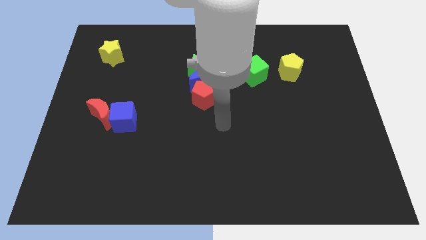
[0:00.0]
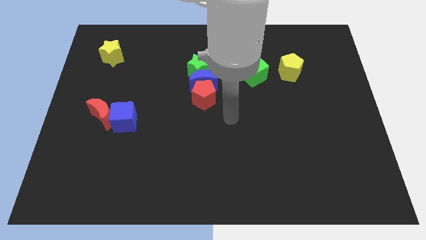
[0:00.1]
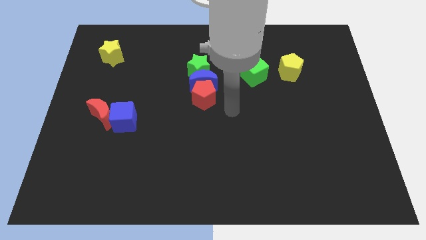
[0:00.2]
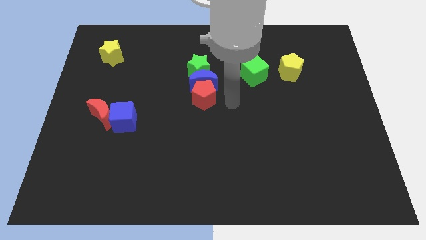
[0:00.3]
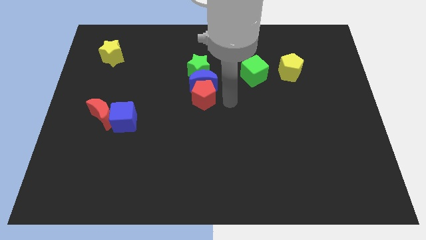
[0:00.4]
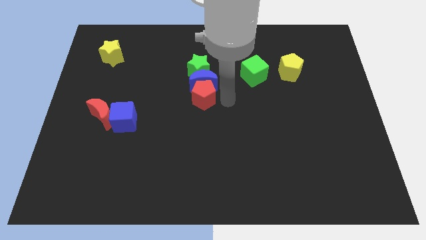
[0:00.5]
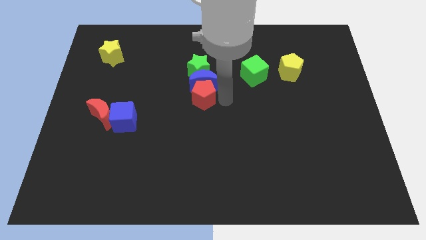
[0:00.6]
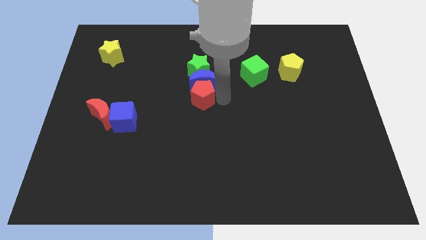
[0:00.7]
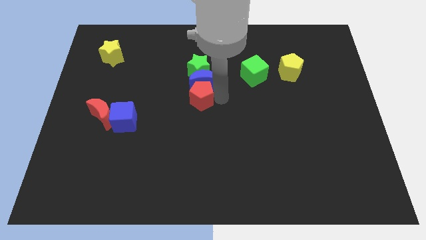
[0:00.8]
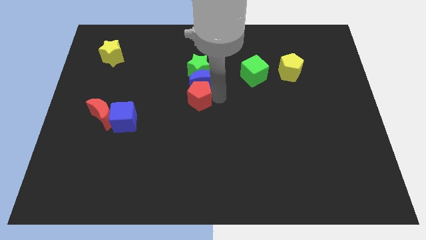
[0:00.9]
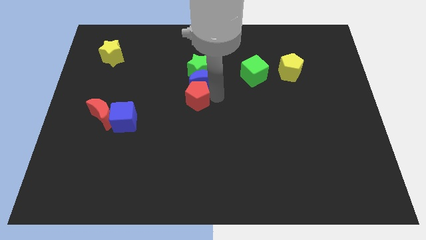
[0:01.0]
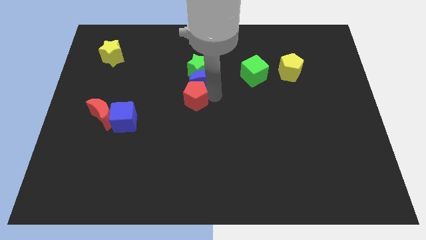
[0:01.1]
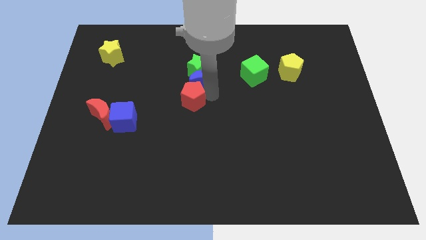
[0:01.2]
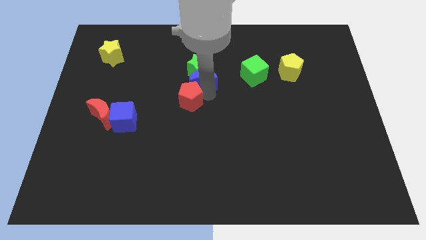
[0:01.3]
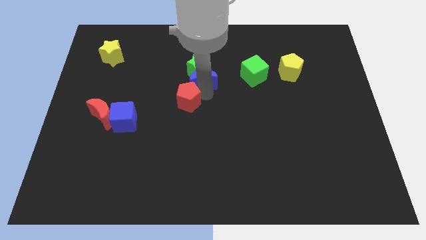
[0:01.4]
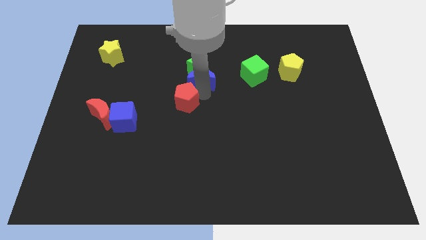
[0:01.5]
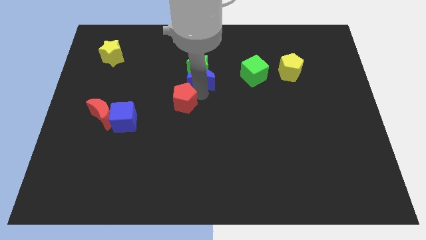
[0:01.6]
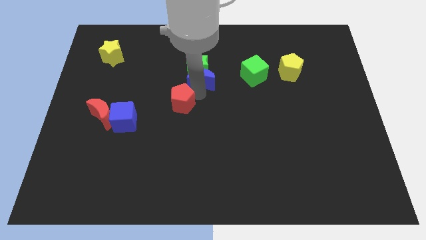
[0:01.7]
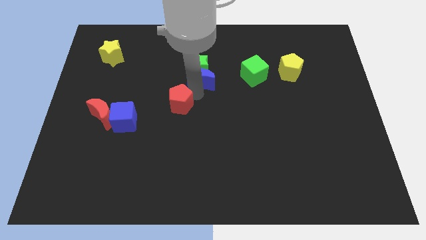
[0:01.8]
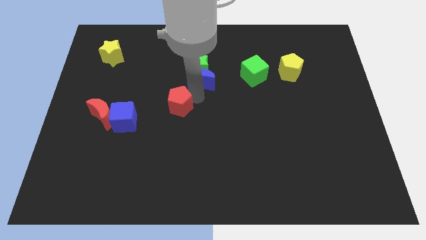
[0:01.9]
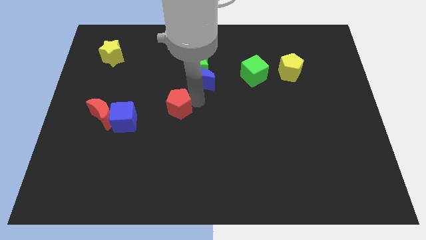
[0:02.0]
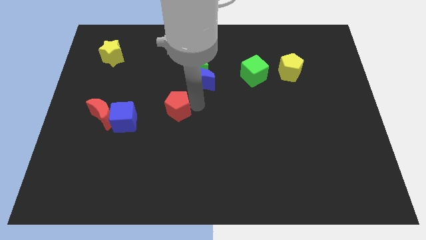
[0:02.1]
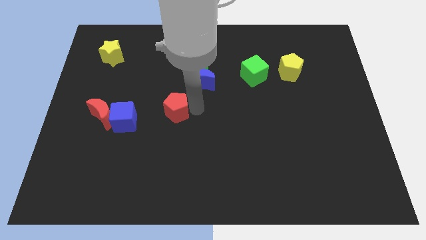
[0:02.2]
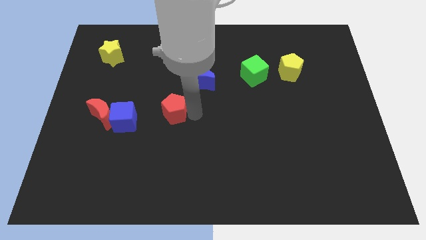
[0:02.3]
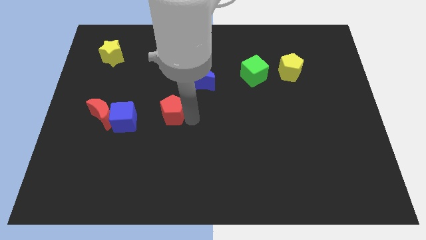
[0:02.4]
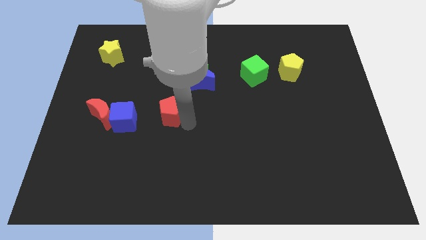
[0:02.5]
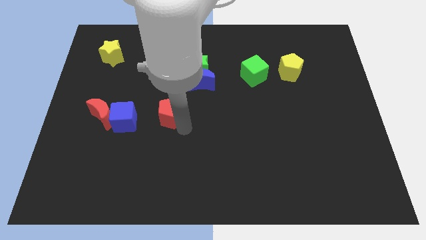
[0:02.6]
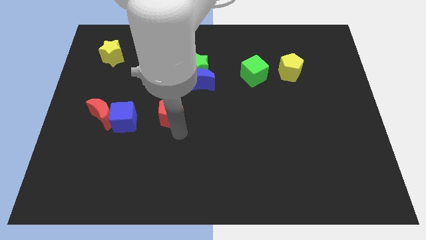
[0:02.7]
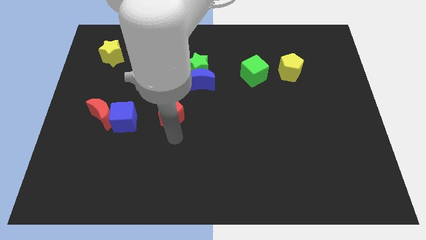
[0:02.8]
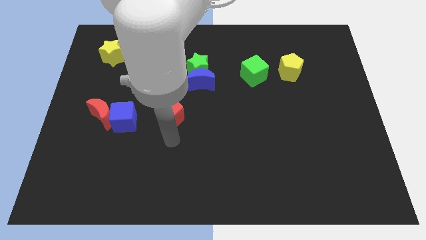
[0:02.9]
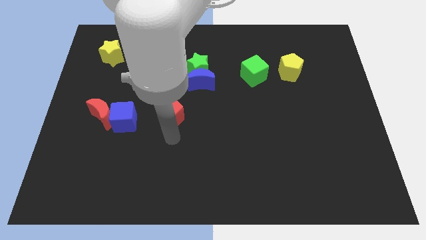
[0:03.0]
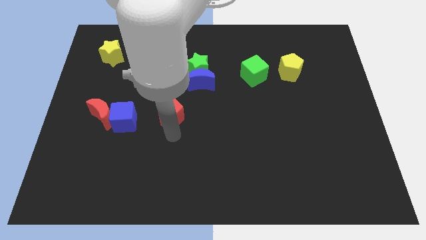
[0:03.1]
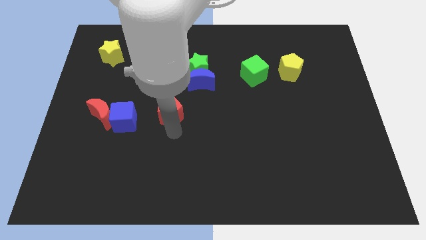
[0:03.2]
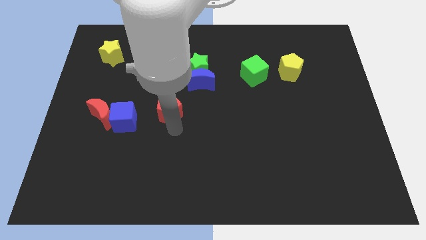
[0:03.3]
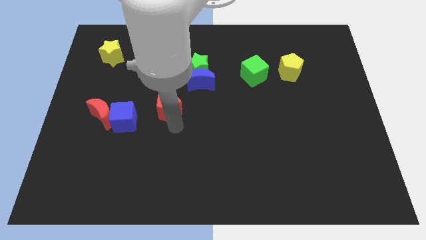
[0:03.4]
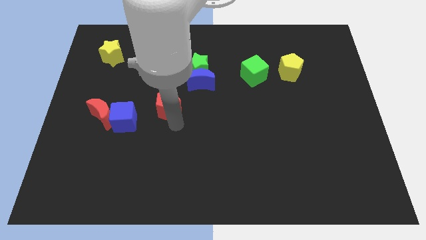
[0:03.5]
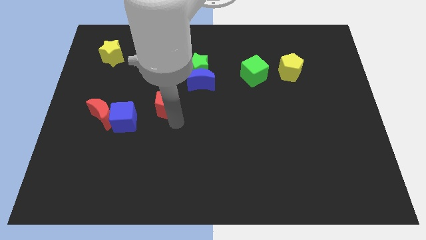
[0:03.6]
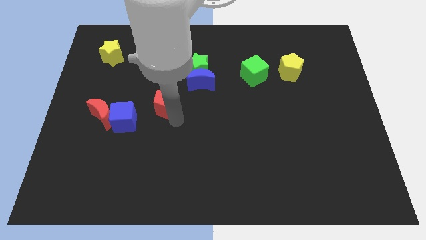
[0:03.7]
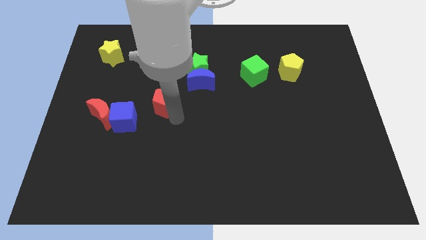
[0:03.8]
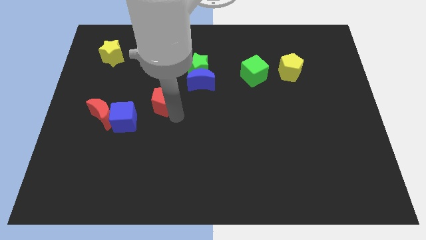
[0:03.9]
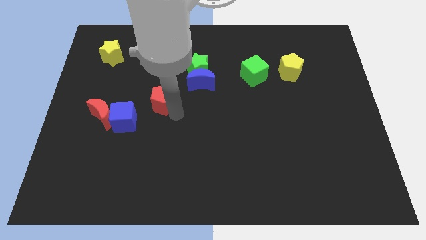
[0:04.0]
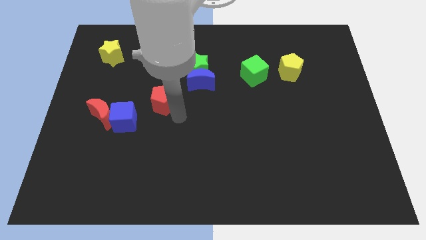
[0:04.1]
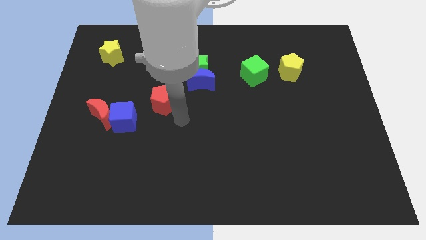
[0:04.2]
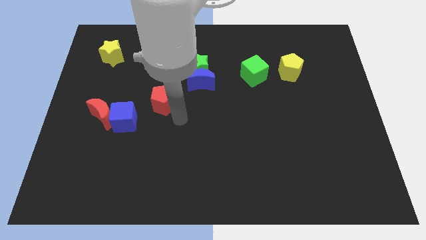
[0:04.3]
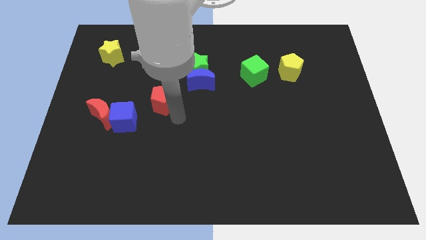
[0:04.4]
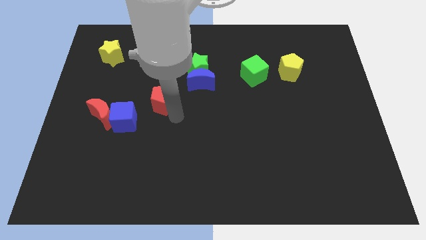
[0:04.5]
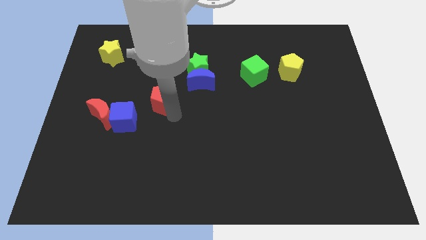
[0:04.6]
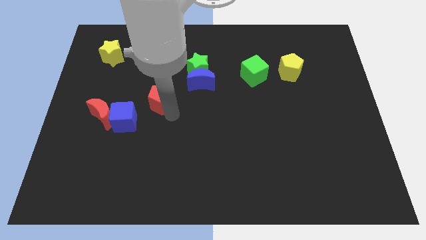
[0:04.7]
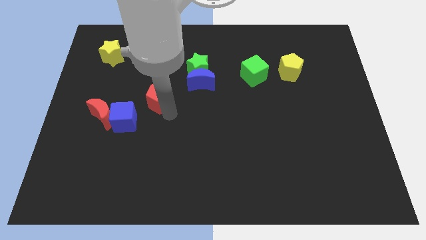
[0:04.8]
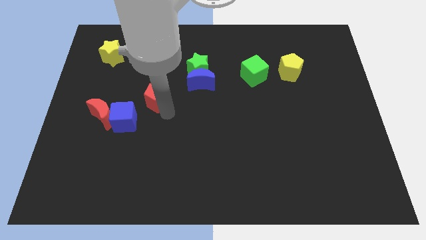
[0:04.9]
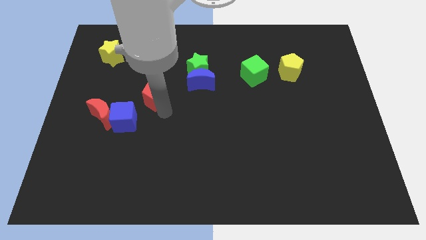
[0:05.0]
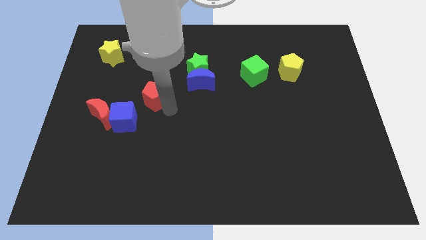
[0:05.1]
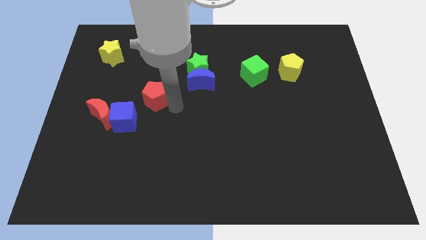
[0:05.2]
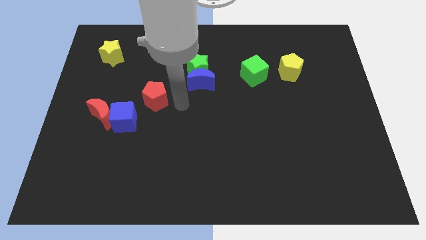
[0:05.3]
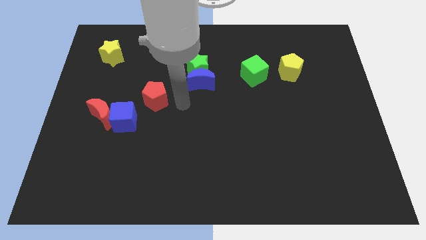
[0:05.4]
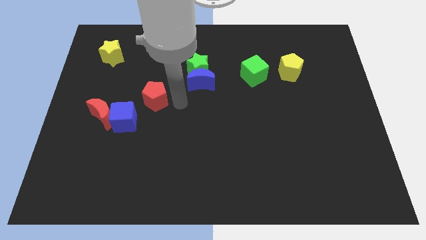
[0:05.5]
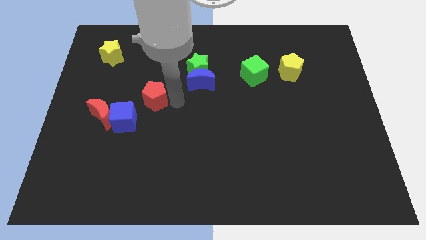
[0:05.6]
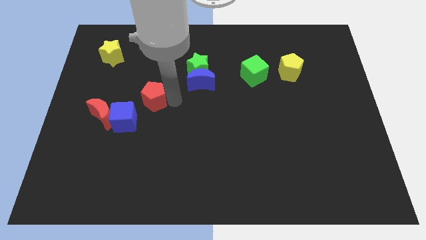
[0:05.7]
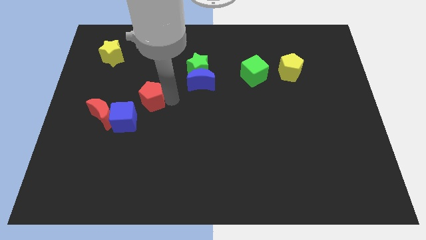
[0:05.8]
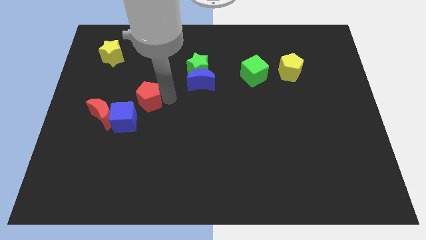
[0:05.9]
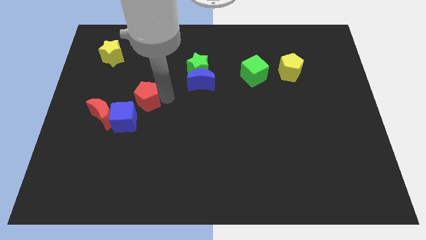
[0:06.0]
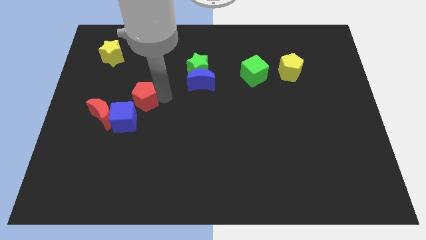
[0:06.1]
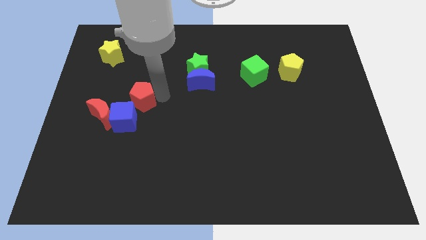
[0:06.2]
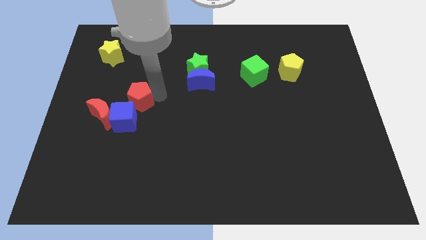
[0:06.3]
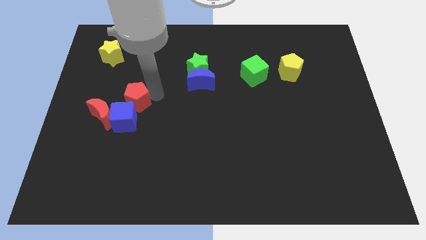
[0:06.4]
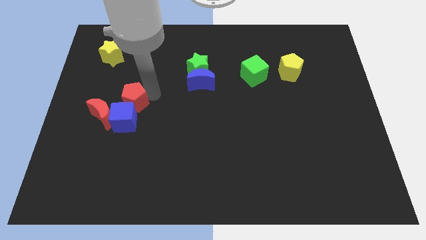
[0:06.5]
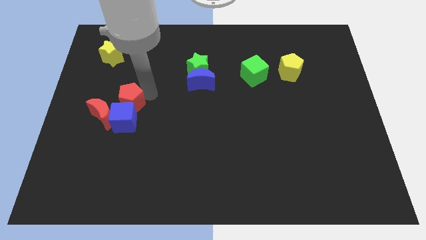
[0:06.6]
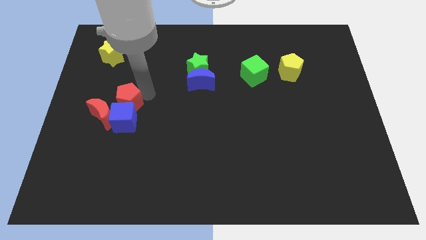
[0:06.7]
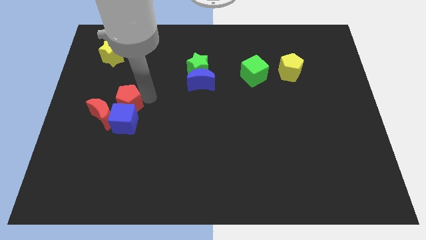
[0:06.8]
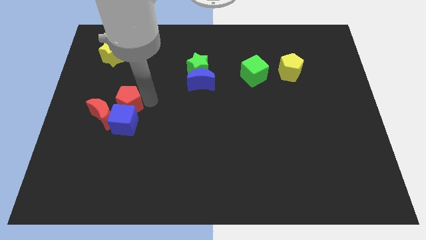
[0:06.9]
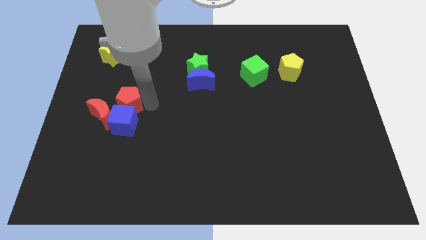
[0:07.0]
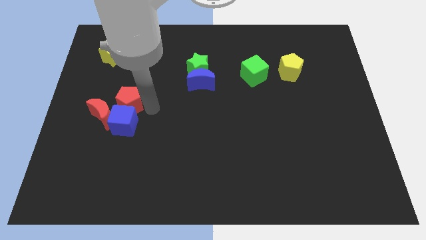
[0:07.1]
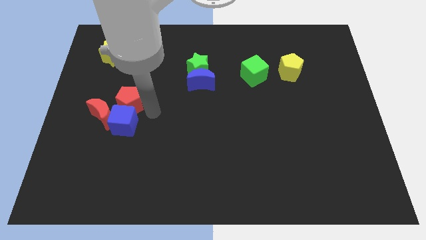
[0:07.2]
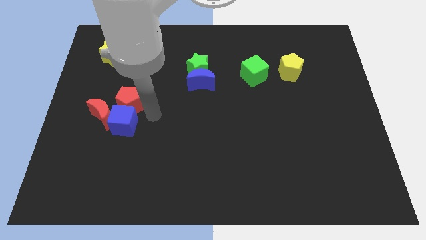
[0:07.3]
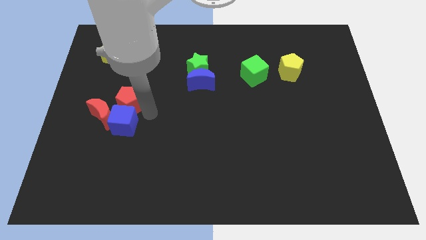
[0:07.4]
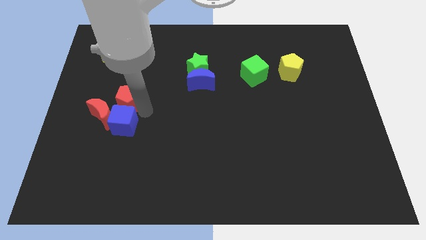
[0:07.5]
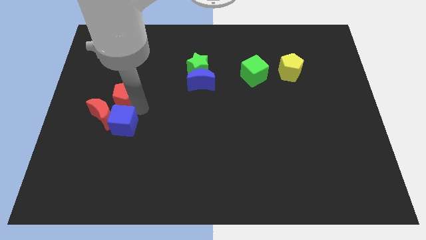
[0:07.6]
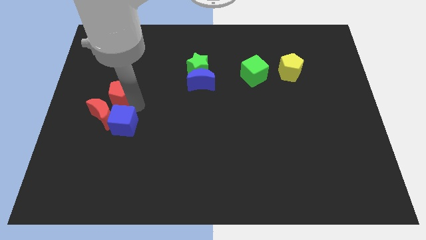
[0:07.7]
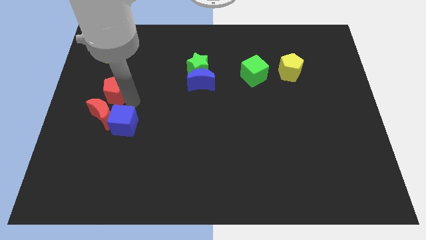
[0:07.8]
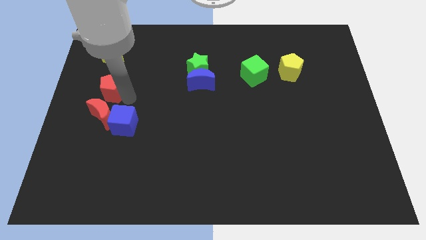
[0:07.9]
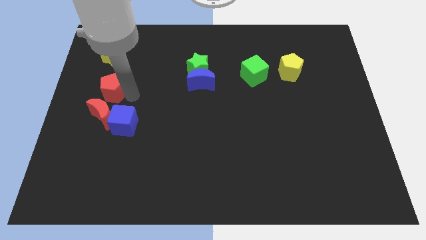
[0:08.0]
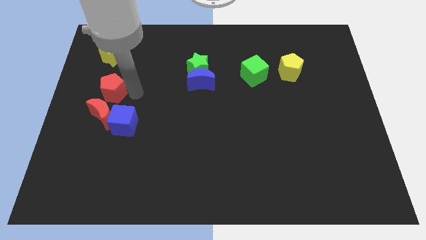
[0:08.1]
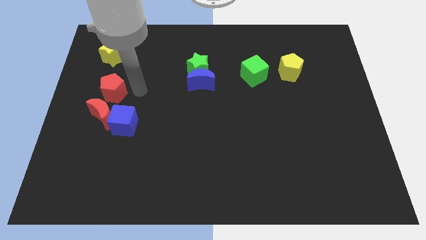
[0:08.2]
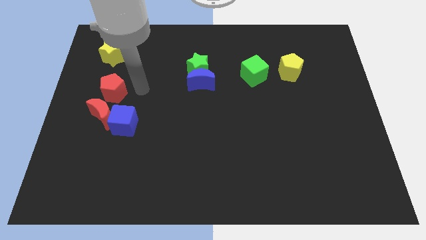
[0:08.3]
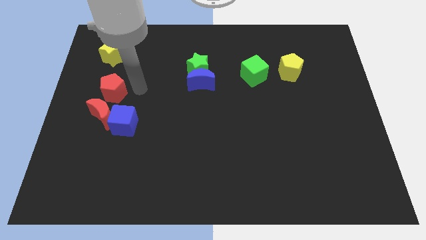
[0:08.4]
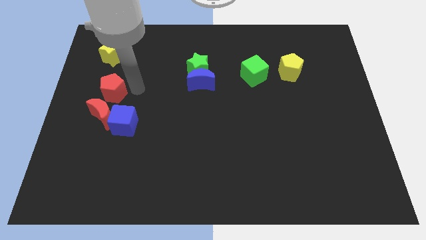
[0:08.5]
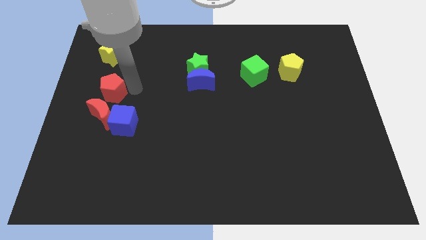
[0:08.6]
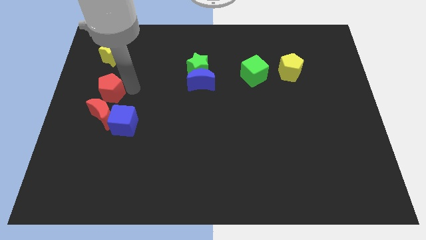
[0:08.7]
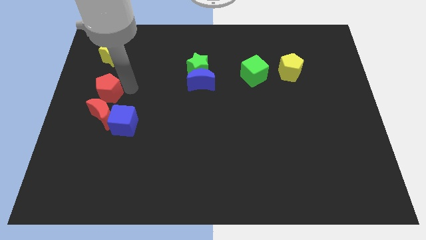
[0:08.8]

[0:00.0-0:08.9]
move the red pentagon to the left side of the board
